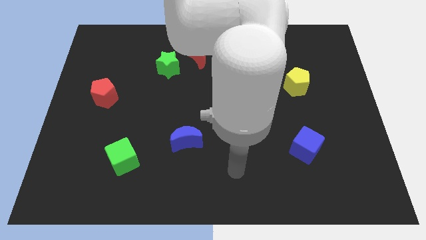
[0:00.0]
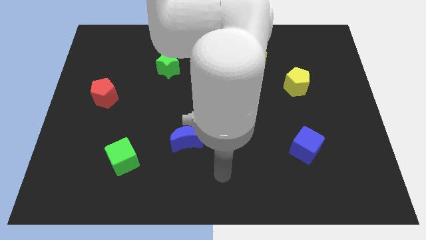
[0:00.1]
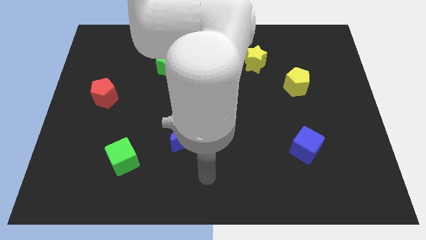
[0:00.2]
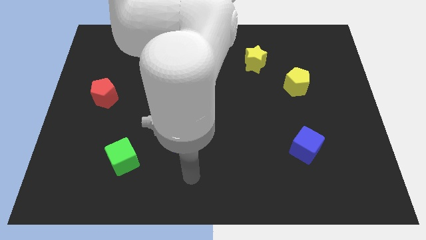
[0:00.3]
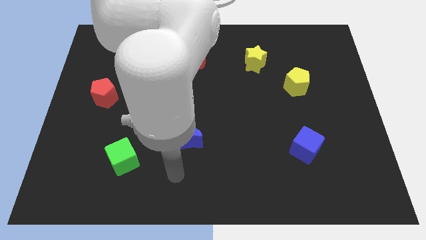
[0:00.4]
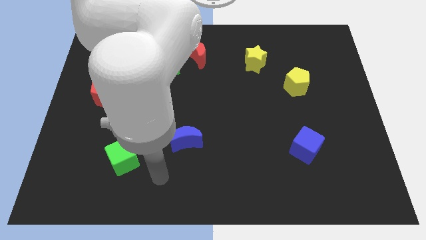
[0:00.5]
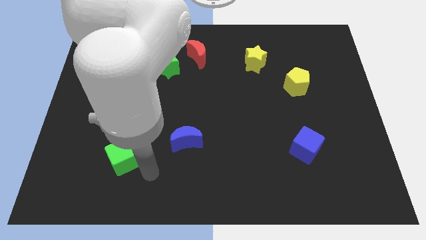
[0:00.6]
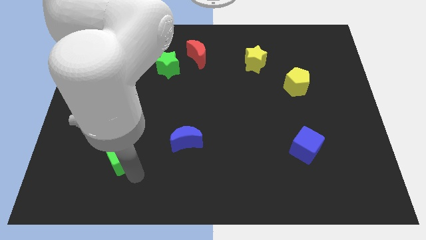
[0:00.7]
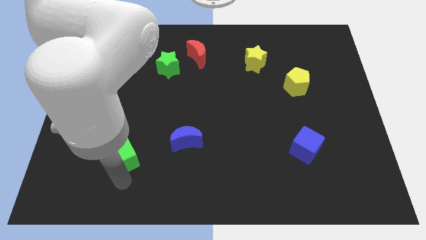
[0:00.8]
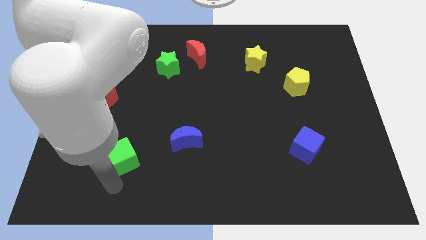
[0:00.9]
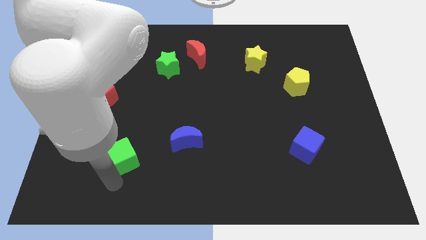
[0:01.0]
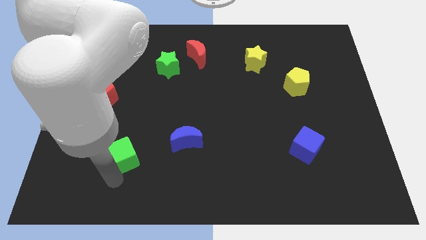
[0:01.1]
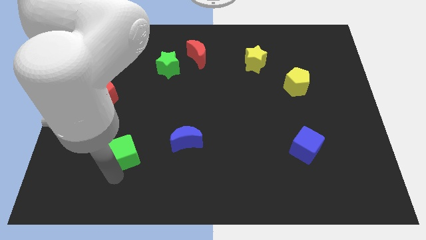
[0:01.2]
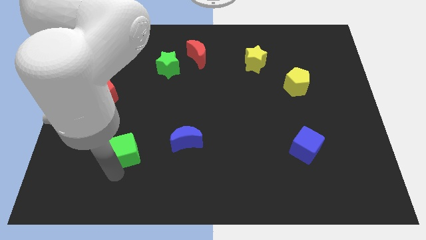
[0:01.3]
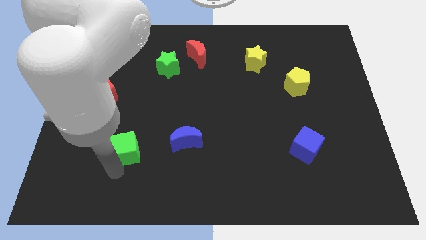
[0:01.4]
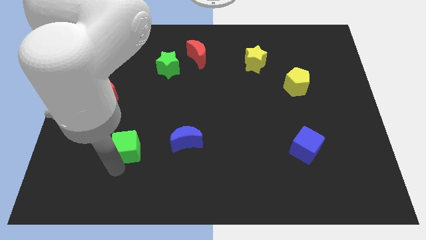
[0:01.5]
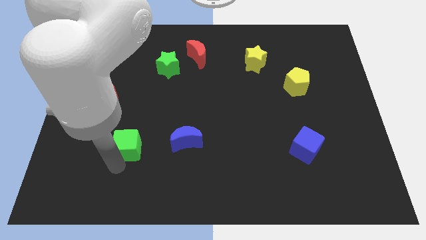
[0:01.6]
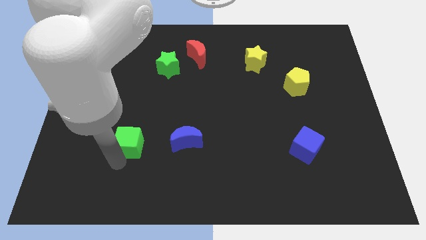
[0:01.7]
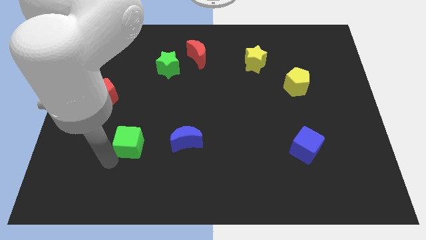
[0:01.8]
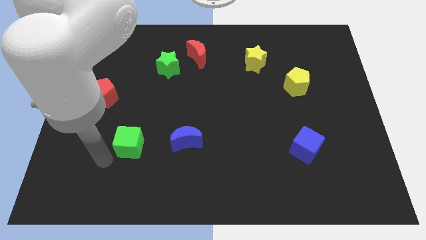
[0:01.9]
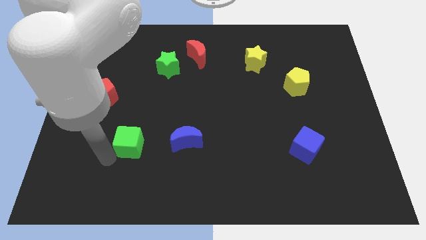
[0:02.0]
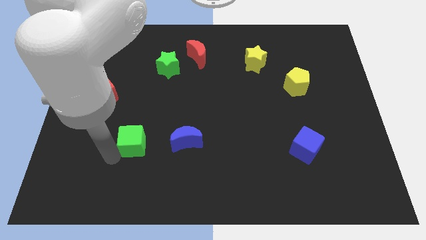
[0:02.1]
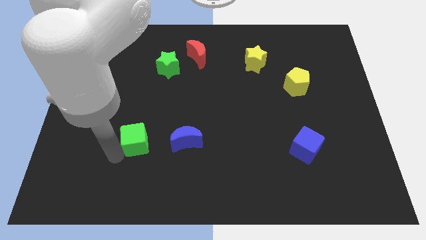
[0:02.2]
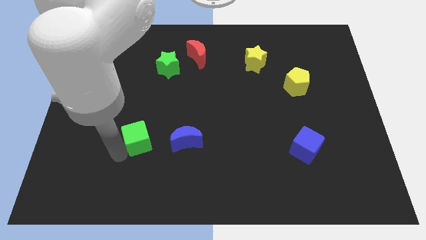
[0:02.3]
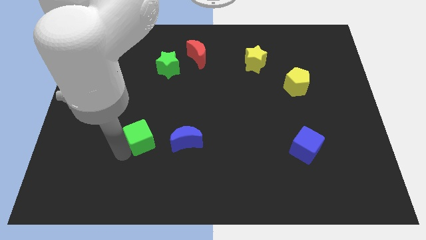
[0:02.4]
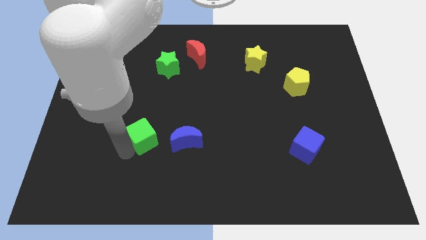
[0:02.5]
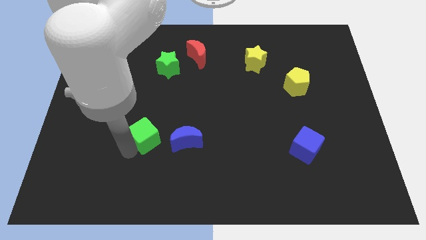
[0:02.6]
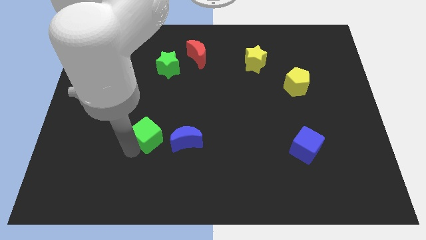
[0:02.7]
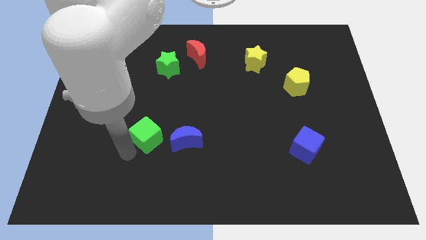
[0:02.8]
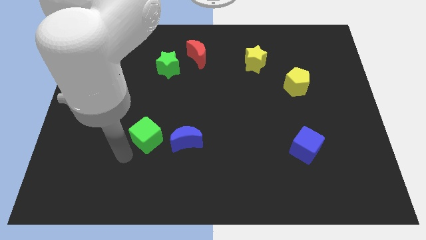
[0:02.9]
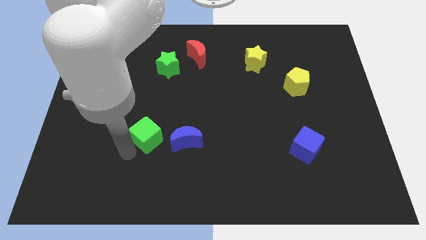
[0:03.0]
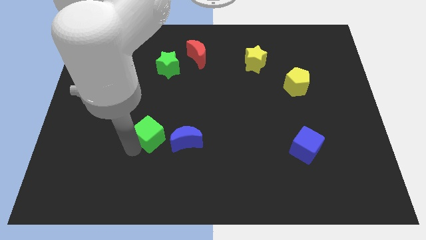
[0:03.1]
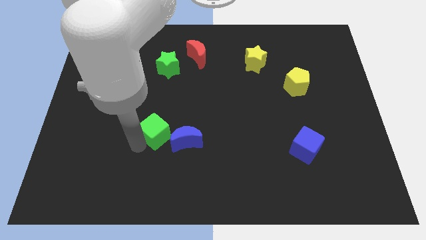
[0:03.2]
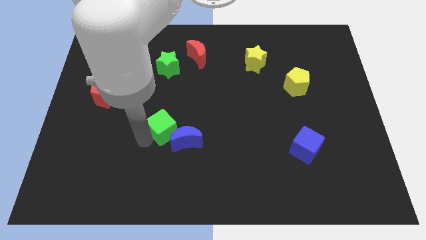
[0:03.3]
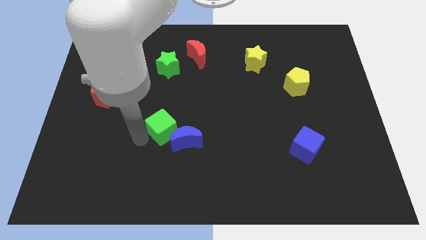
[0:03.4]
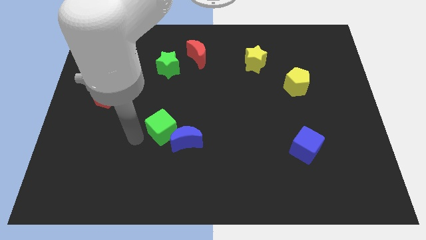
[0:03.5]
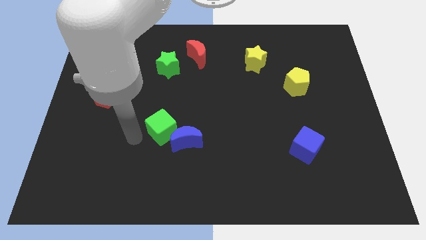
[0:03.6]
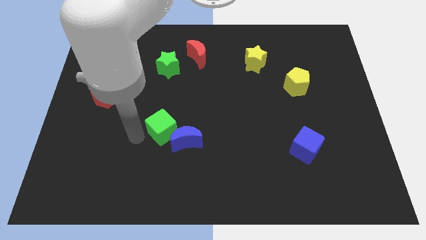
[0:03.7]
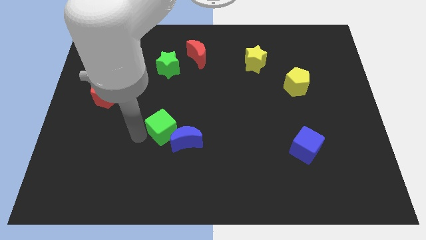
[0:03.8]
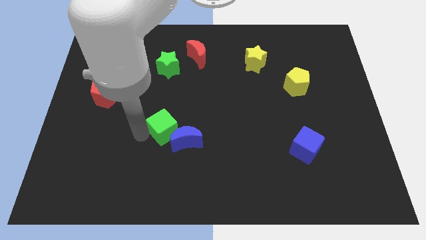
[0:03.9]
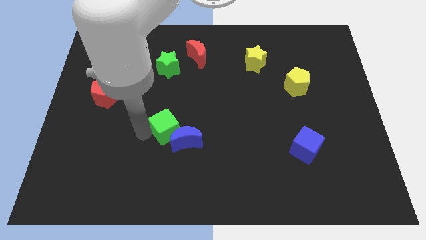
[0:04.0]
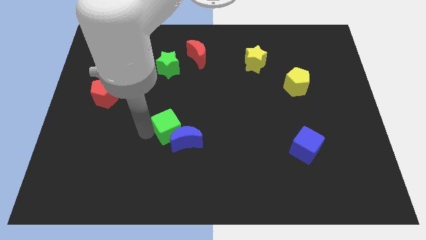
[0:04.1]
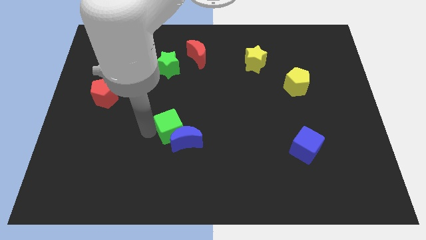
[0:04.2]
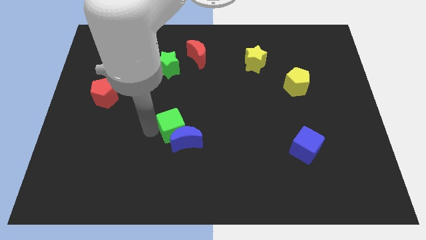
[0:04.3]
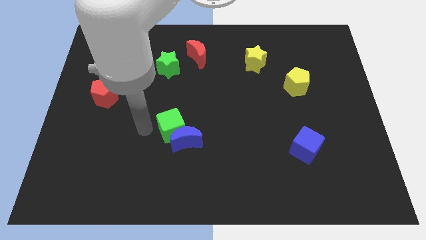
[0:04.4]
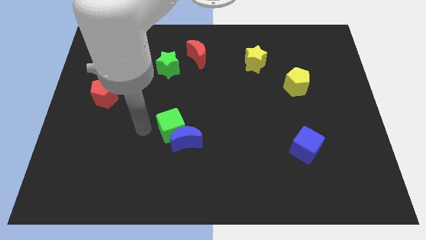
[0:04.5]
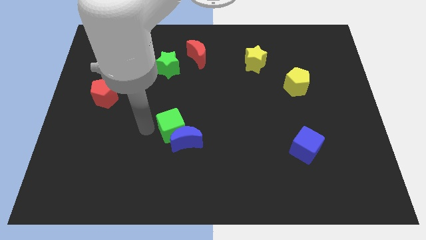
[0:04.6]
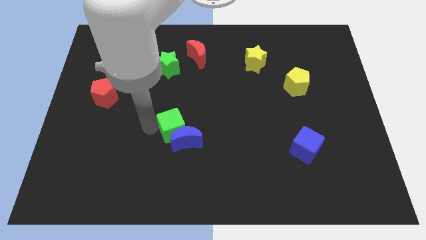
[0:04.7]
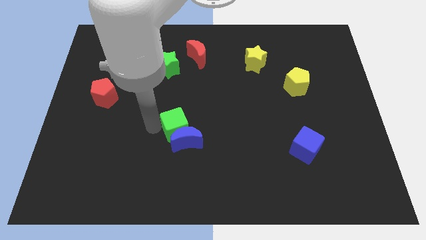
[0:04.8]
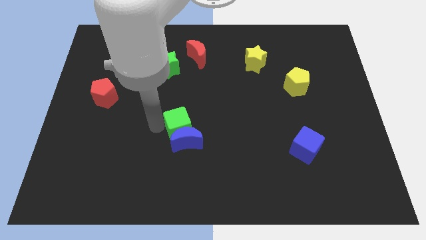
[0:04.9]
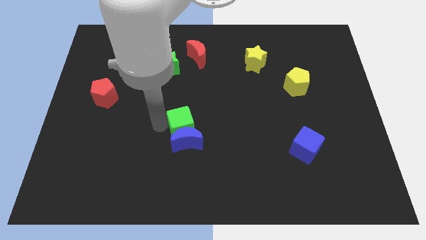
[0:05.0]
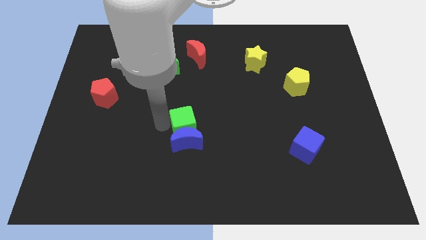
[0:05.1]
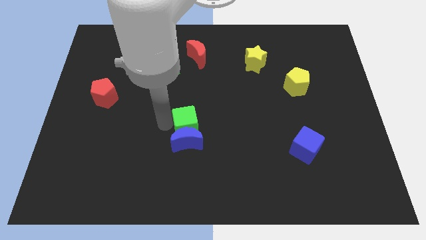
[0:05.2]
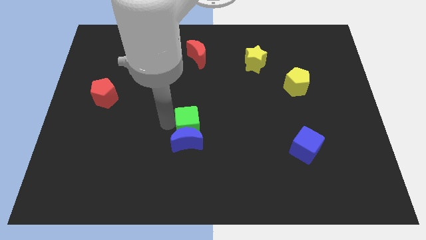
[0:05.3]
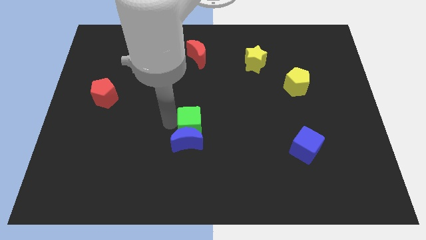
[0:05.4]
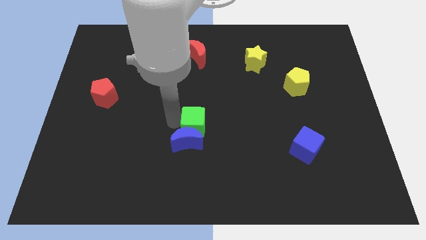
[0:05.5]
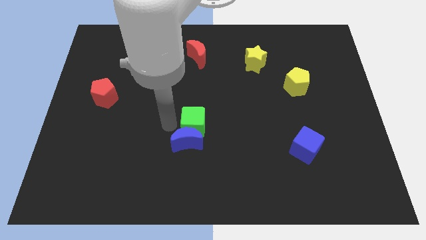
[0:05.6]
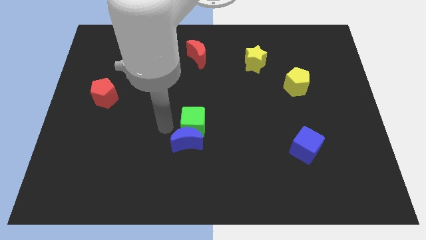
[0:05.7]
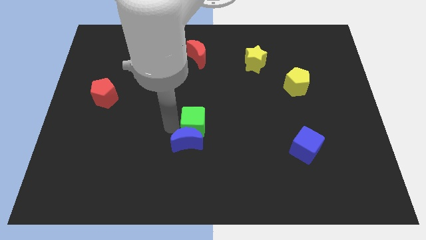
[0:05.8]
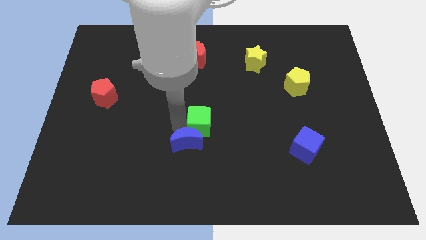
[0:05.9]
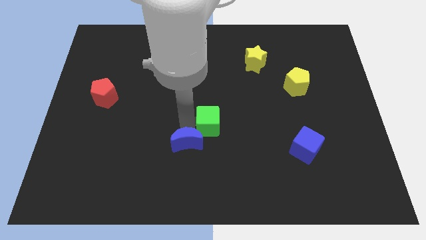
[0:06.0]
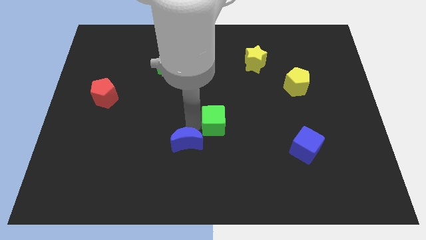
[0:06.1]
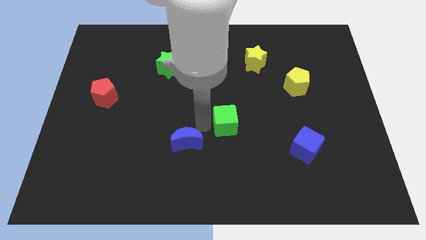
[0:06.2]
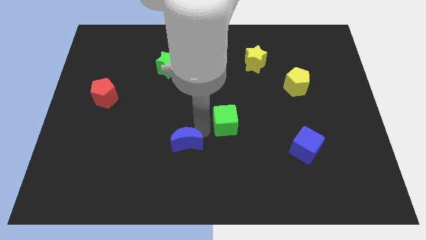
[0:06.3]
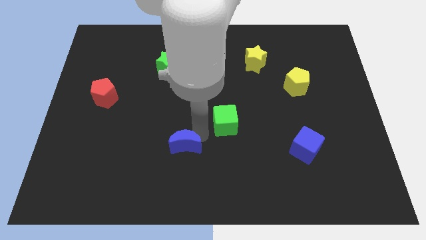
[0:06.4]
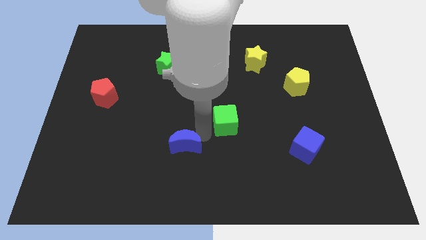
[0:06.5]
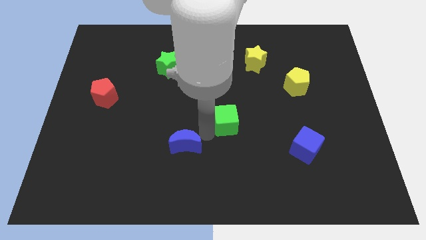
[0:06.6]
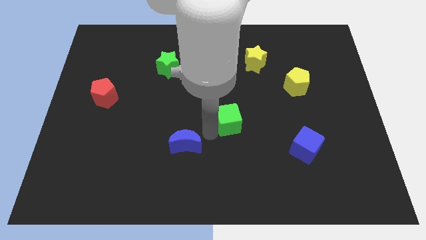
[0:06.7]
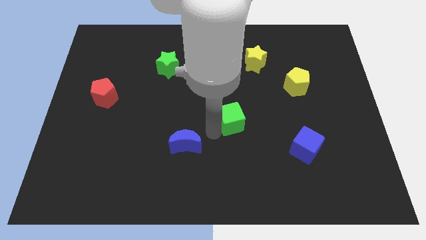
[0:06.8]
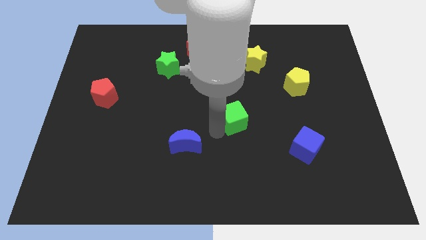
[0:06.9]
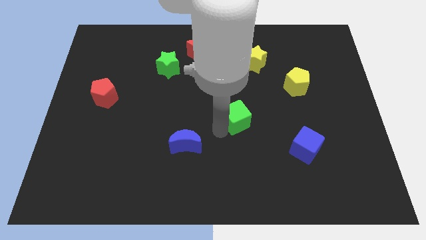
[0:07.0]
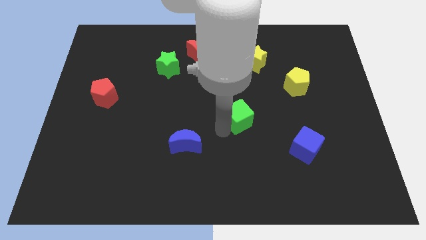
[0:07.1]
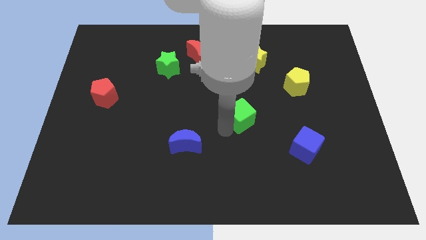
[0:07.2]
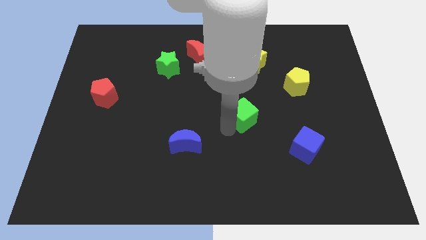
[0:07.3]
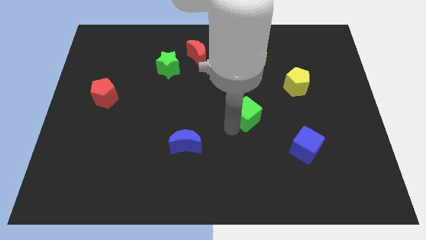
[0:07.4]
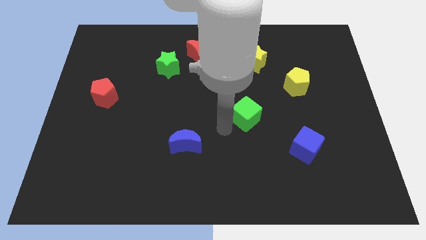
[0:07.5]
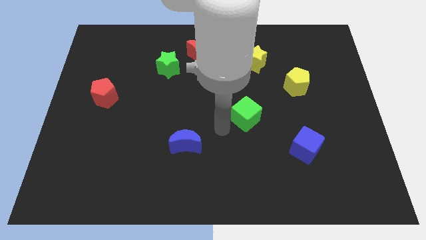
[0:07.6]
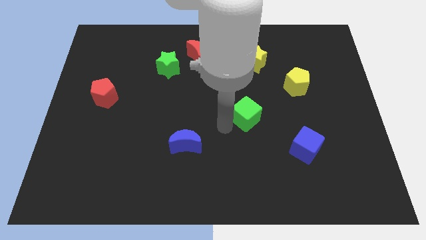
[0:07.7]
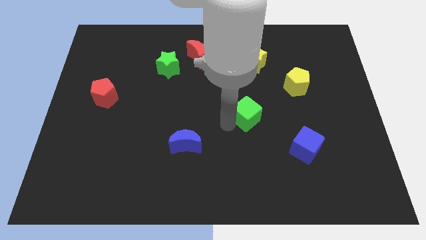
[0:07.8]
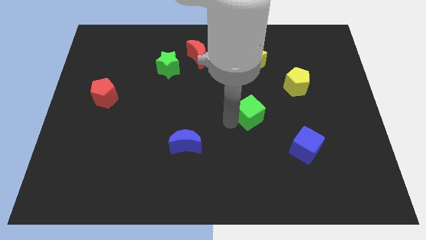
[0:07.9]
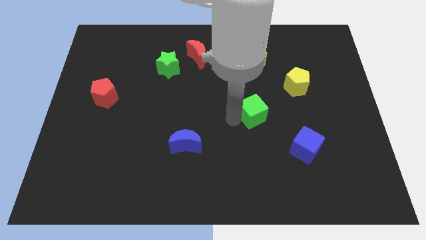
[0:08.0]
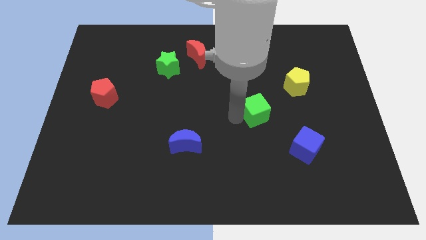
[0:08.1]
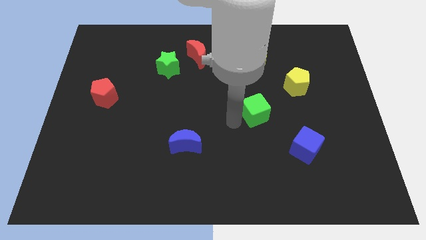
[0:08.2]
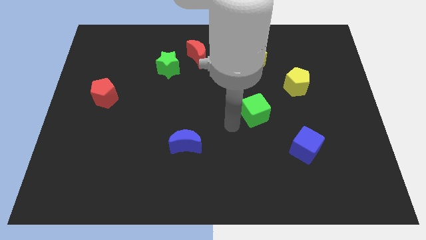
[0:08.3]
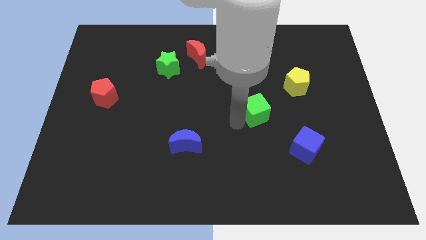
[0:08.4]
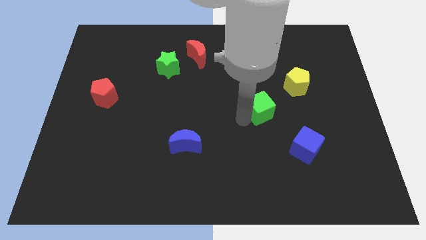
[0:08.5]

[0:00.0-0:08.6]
put the green cube to the bottom left side of the yellow pentagon
